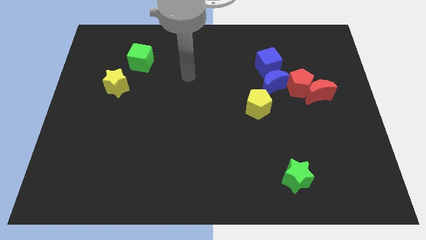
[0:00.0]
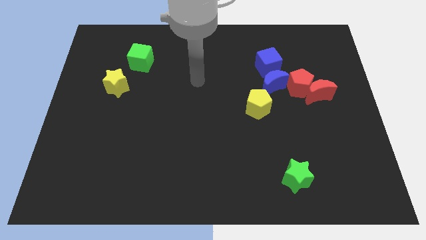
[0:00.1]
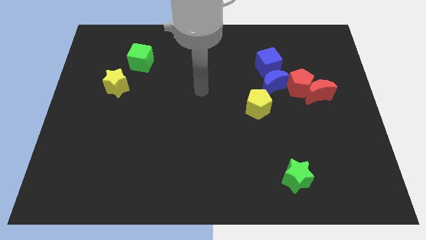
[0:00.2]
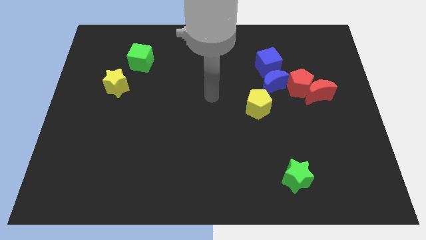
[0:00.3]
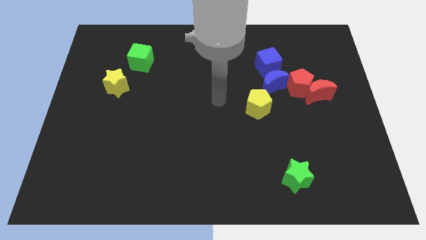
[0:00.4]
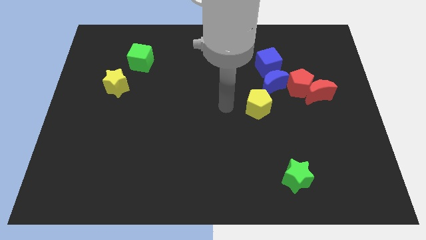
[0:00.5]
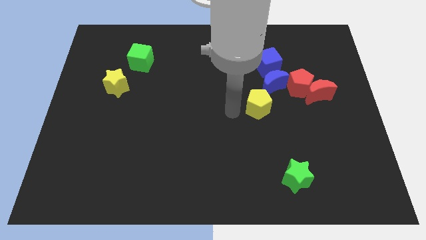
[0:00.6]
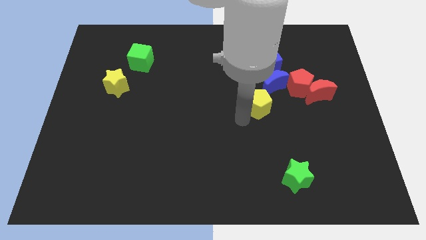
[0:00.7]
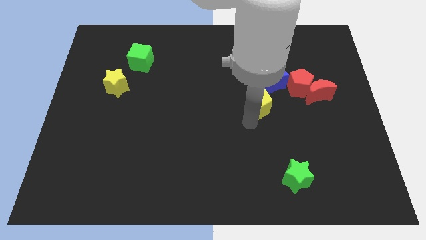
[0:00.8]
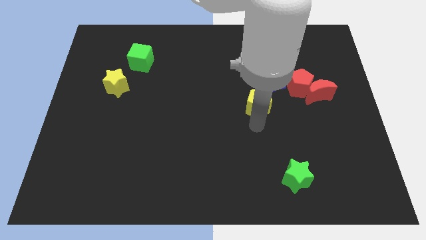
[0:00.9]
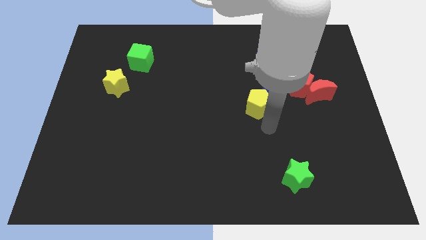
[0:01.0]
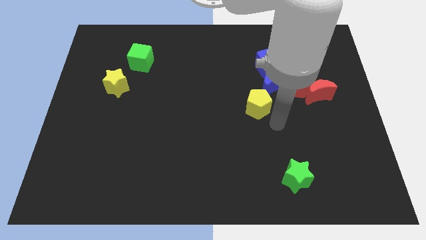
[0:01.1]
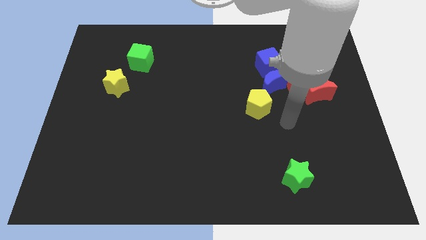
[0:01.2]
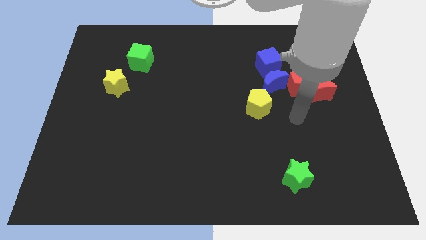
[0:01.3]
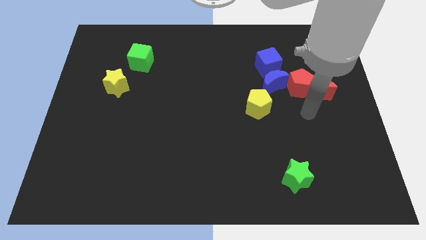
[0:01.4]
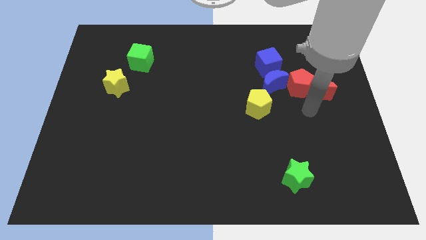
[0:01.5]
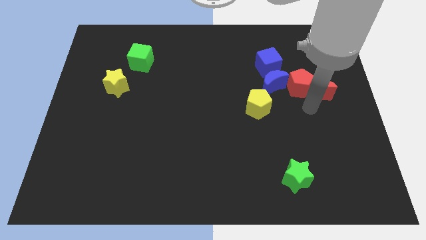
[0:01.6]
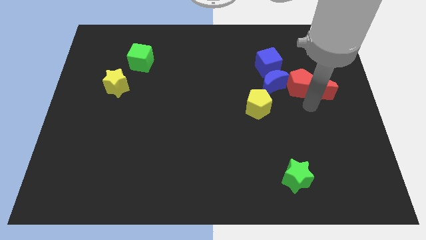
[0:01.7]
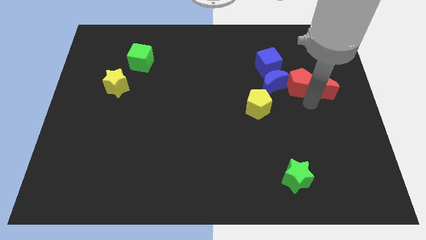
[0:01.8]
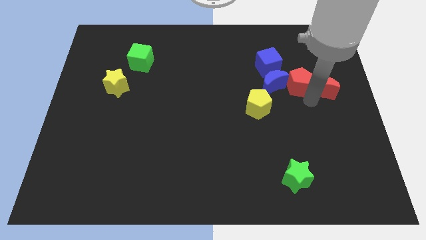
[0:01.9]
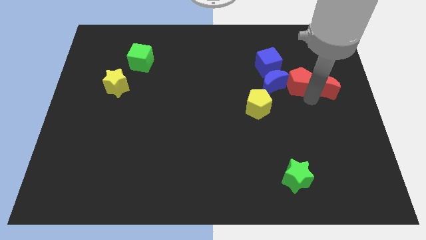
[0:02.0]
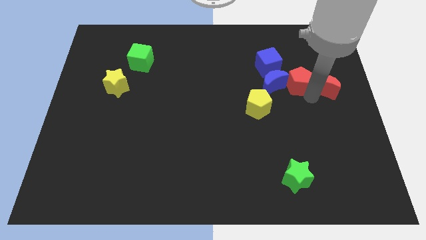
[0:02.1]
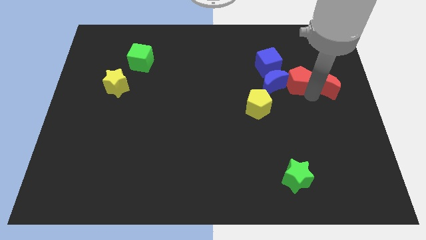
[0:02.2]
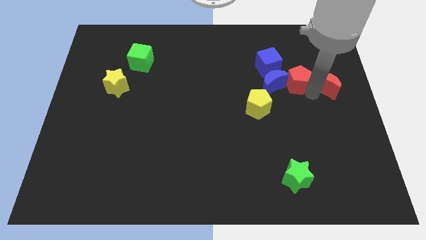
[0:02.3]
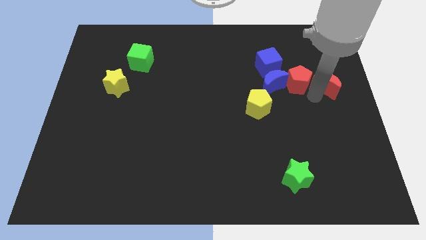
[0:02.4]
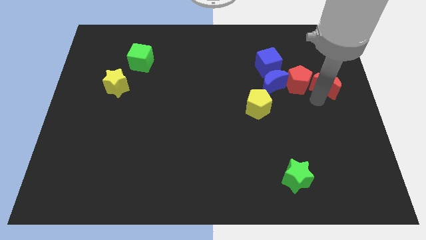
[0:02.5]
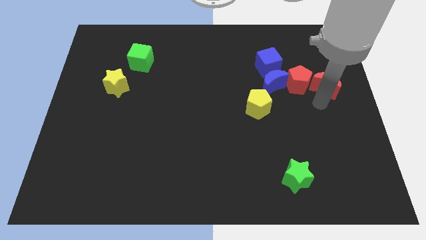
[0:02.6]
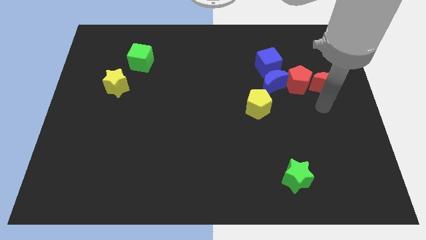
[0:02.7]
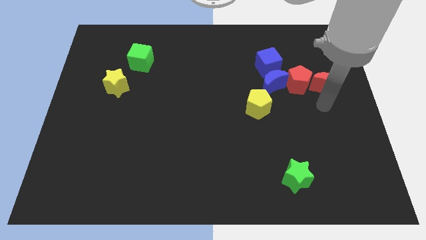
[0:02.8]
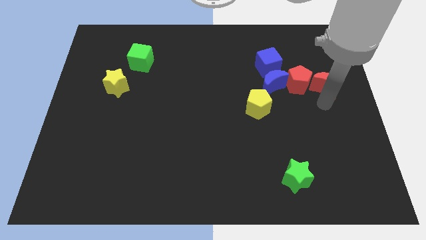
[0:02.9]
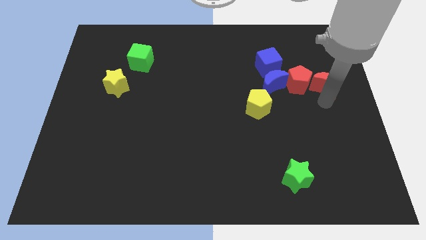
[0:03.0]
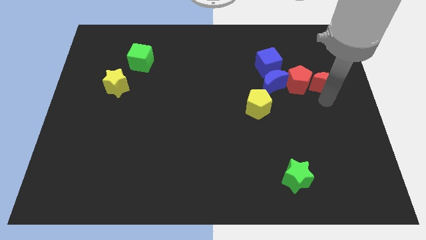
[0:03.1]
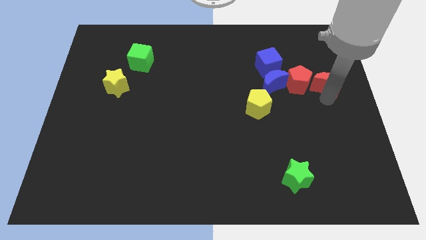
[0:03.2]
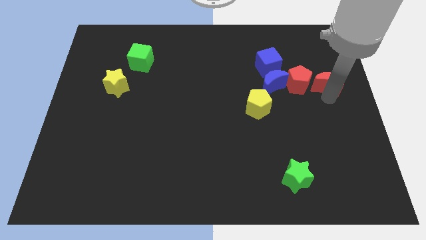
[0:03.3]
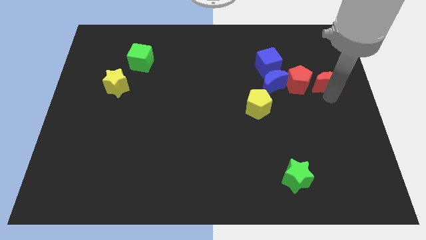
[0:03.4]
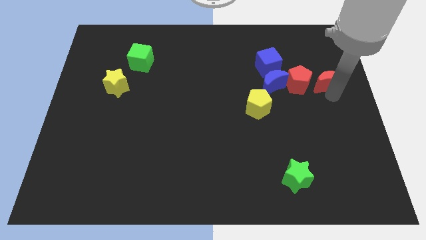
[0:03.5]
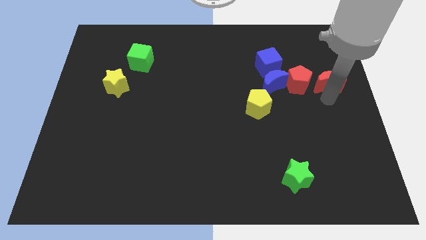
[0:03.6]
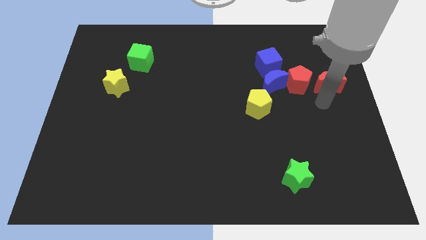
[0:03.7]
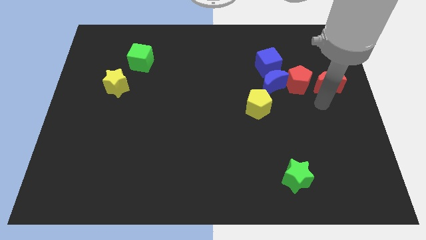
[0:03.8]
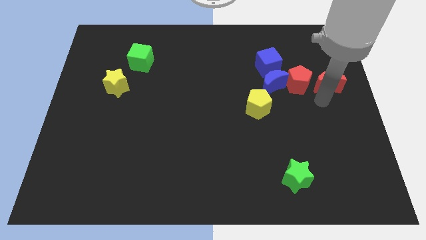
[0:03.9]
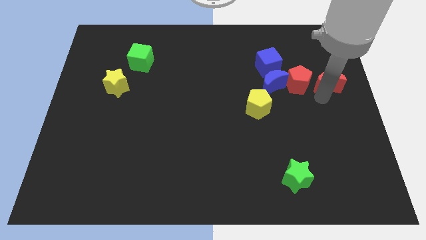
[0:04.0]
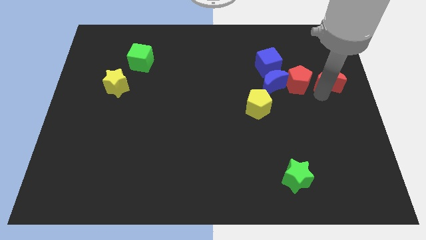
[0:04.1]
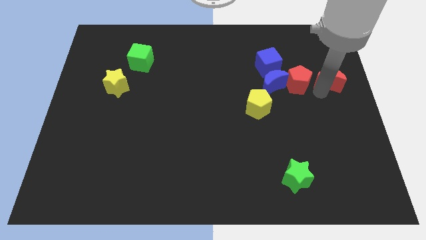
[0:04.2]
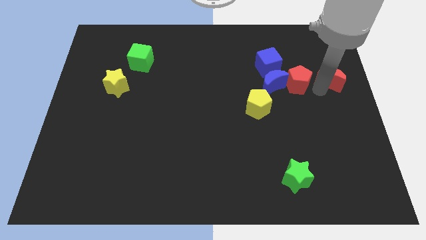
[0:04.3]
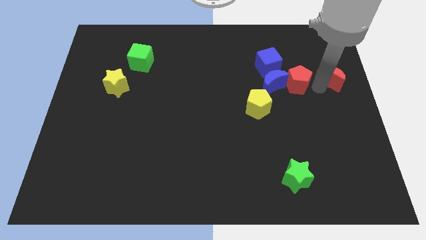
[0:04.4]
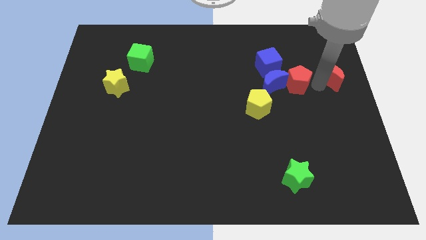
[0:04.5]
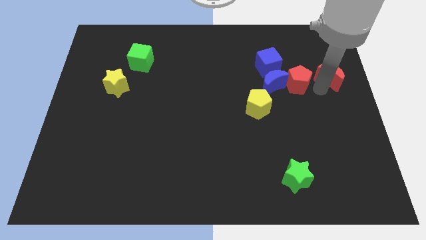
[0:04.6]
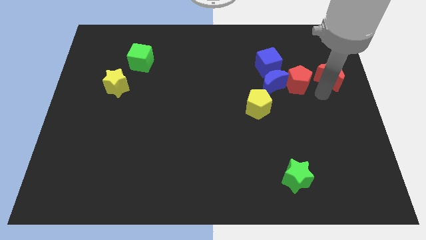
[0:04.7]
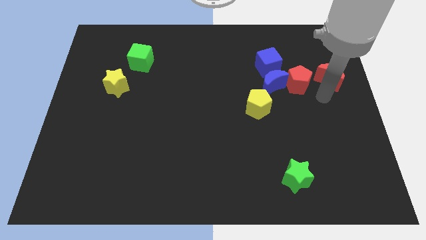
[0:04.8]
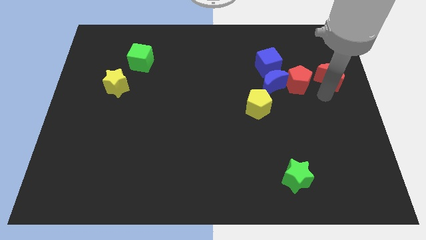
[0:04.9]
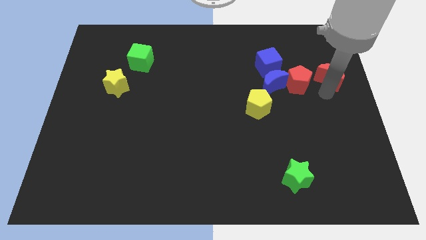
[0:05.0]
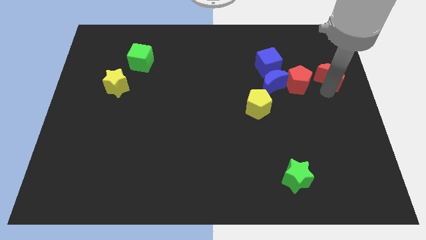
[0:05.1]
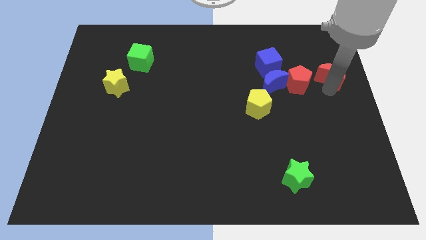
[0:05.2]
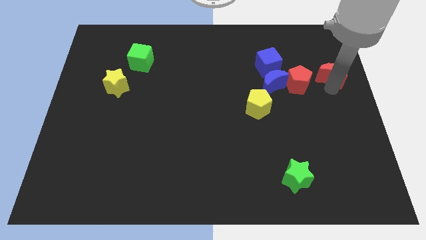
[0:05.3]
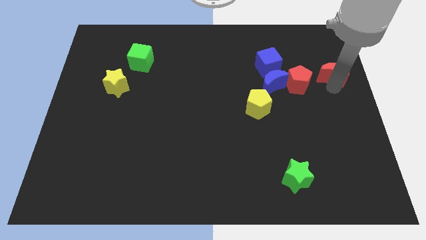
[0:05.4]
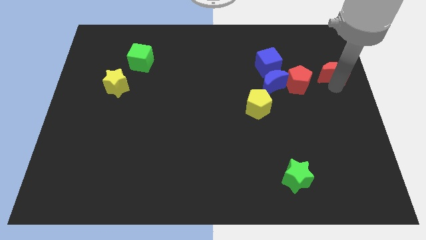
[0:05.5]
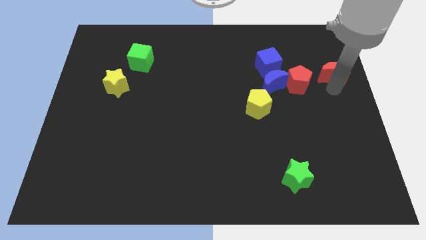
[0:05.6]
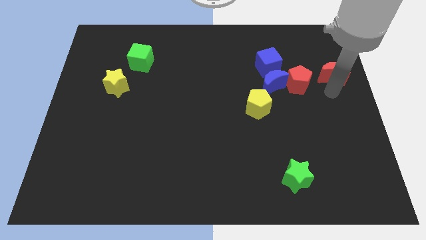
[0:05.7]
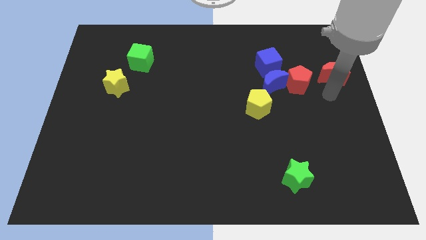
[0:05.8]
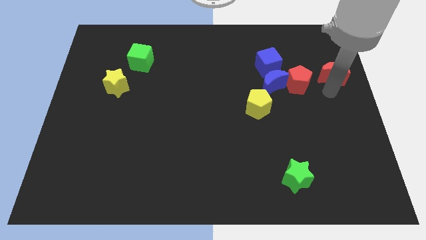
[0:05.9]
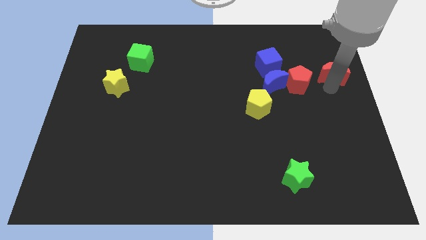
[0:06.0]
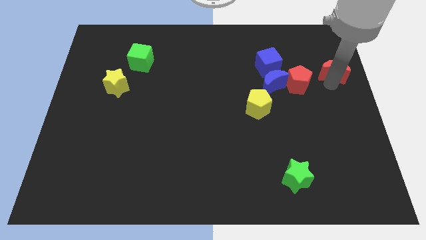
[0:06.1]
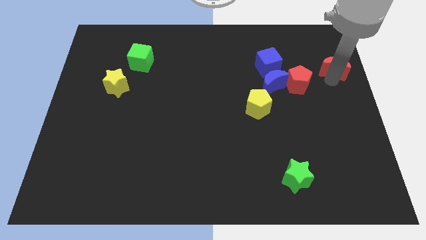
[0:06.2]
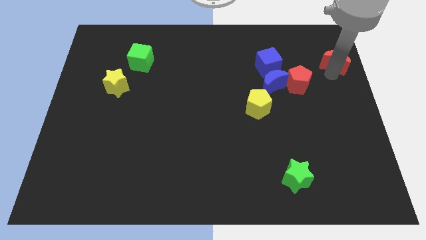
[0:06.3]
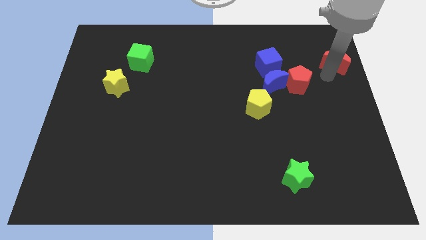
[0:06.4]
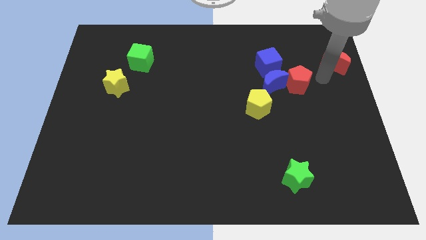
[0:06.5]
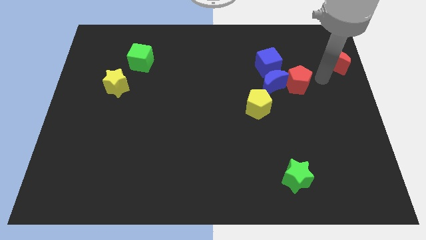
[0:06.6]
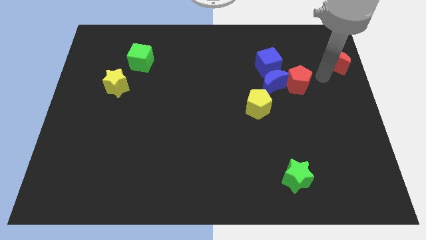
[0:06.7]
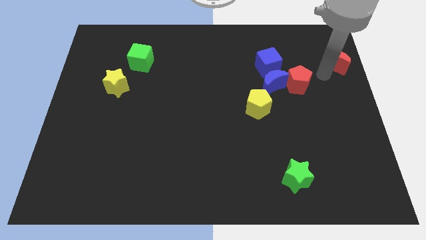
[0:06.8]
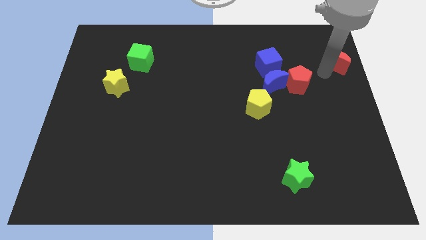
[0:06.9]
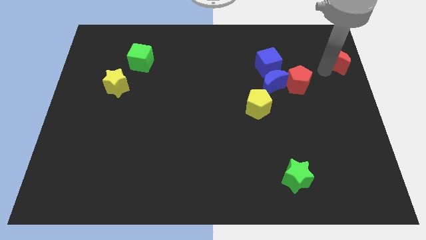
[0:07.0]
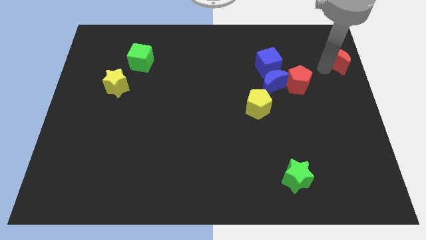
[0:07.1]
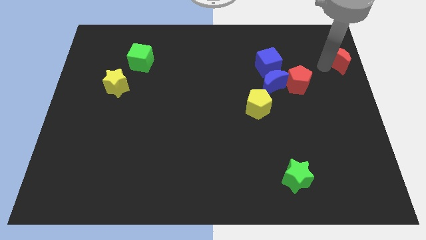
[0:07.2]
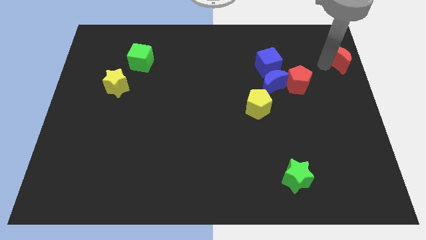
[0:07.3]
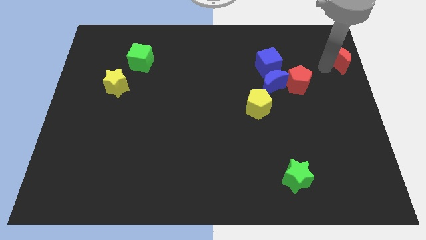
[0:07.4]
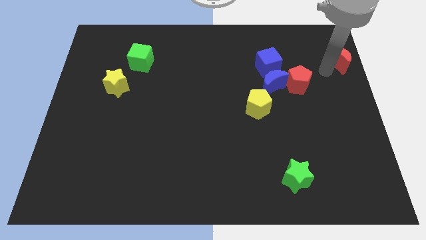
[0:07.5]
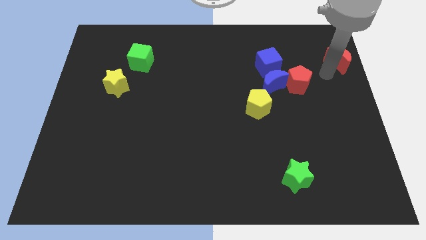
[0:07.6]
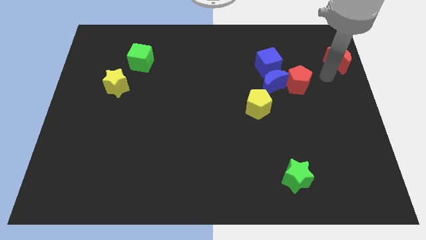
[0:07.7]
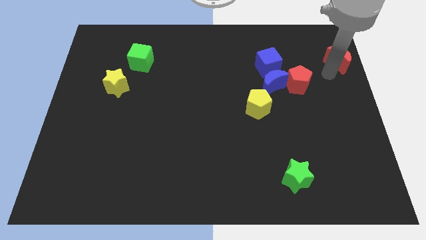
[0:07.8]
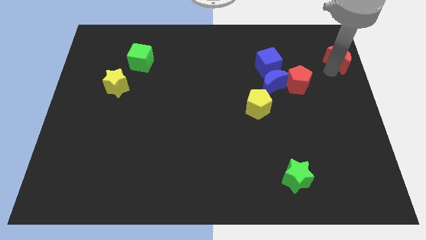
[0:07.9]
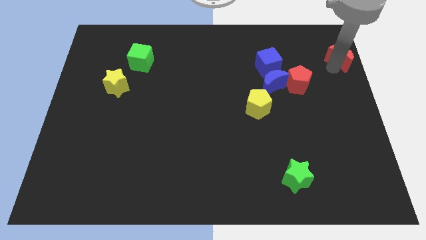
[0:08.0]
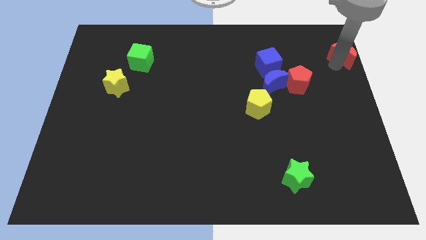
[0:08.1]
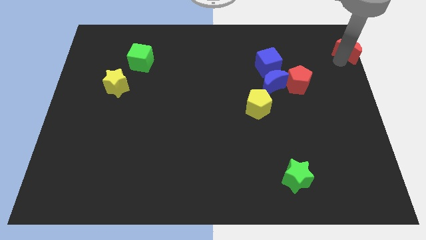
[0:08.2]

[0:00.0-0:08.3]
put the red moon to the top right corner
